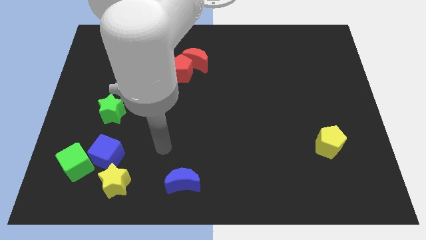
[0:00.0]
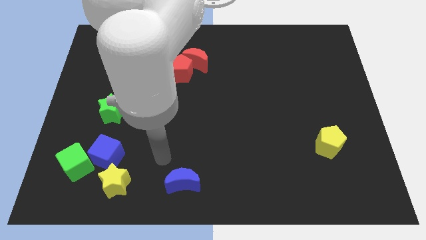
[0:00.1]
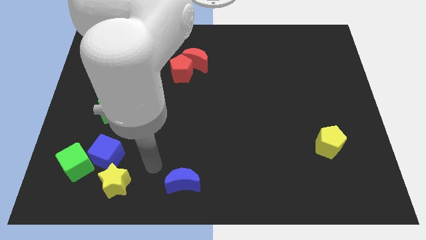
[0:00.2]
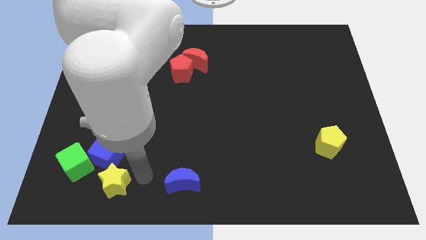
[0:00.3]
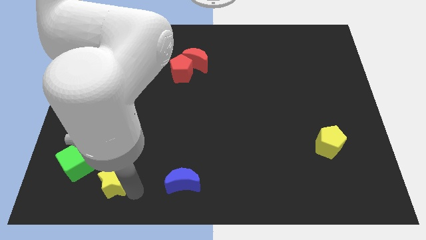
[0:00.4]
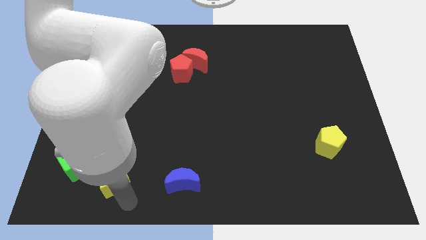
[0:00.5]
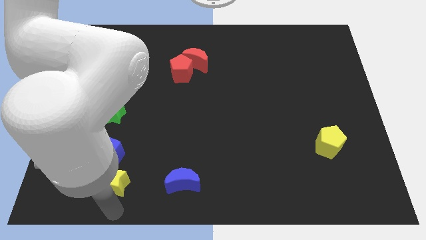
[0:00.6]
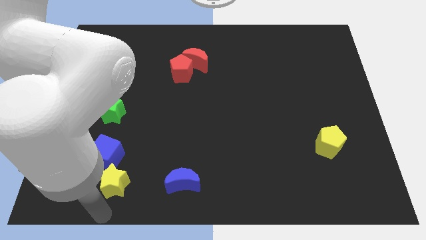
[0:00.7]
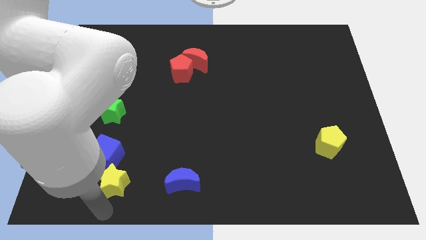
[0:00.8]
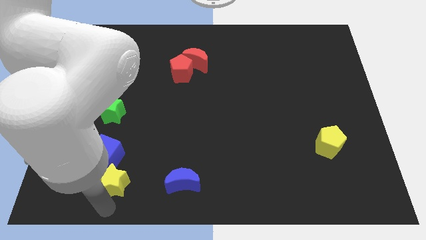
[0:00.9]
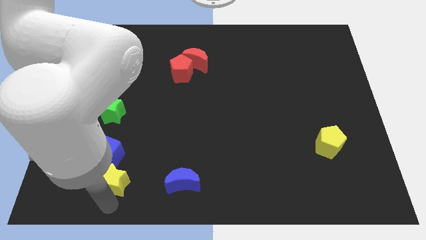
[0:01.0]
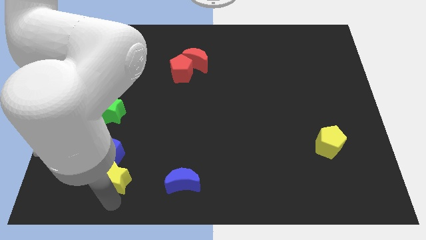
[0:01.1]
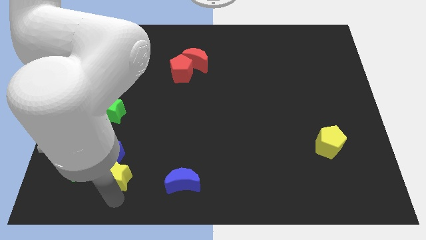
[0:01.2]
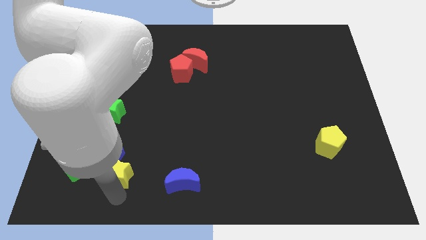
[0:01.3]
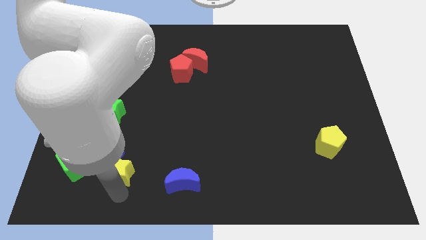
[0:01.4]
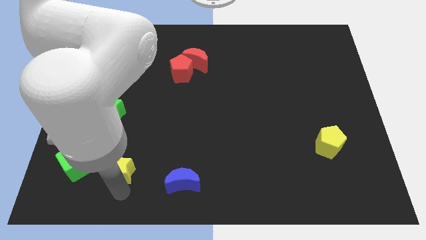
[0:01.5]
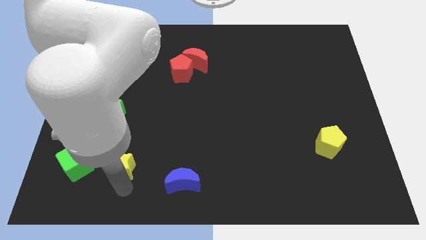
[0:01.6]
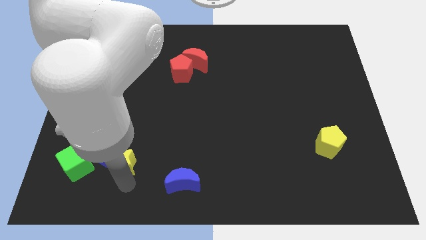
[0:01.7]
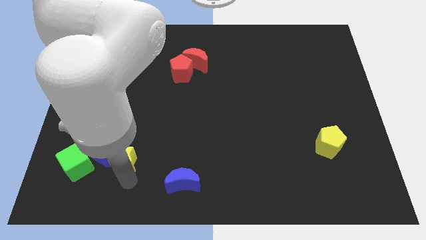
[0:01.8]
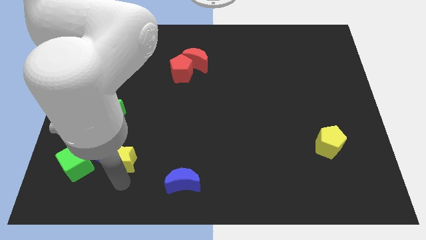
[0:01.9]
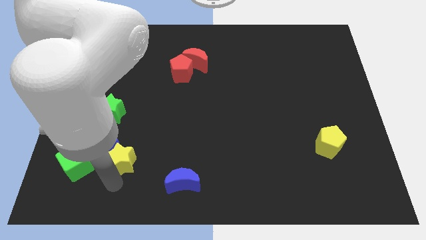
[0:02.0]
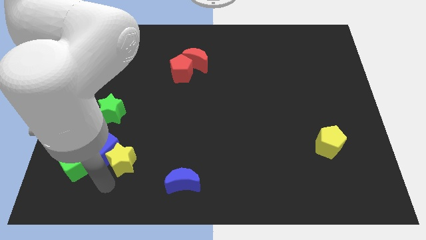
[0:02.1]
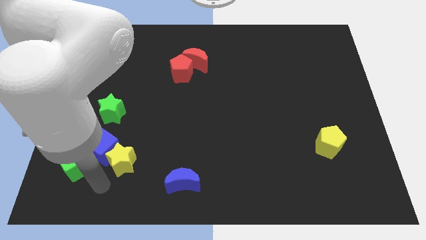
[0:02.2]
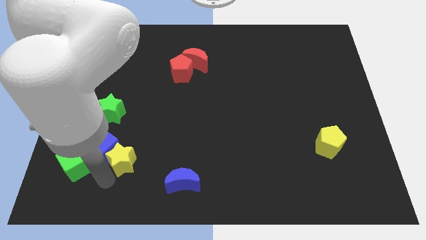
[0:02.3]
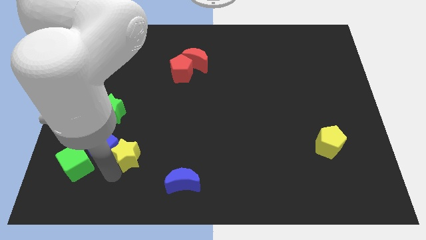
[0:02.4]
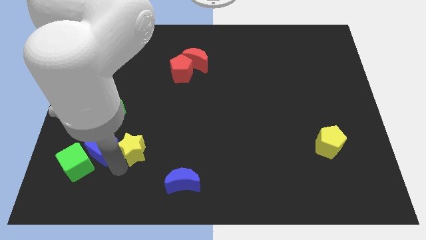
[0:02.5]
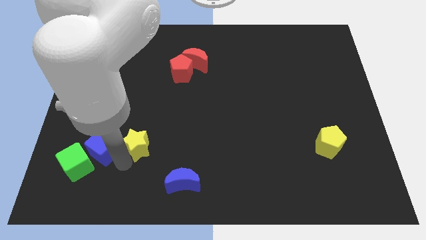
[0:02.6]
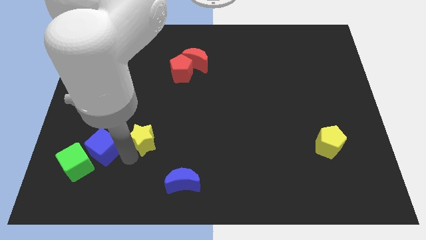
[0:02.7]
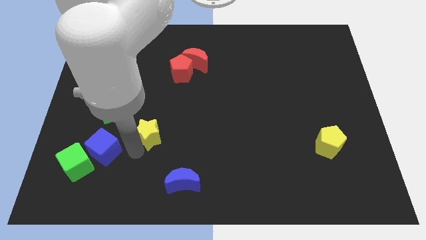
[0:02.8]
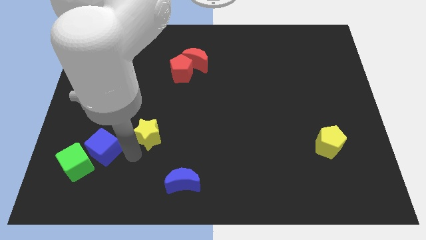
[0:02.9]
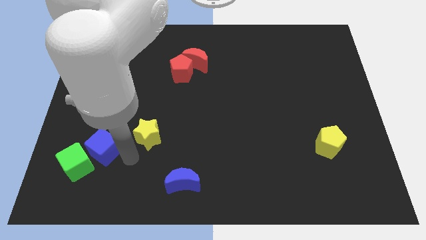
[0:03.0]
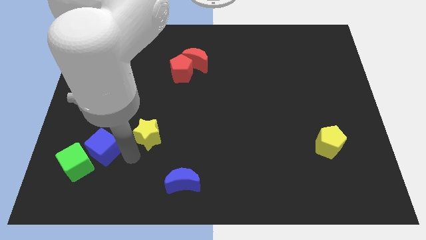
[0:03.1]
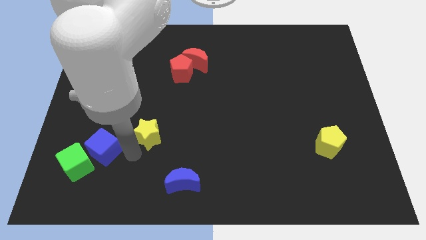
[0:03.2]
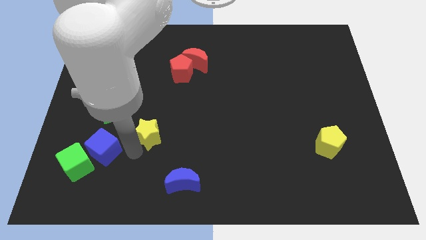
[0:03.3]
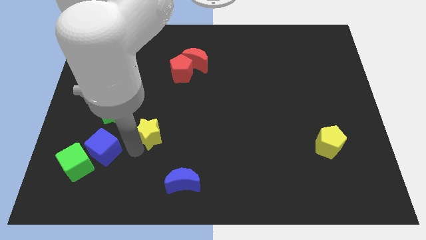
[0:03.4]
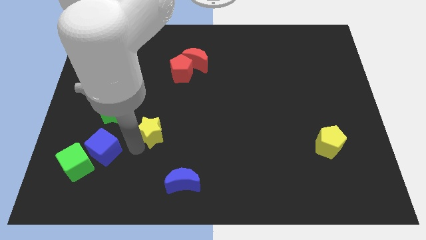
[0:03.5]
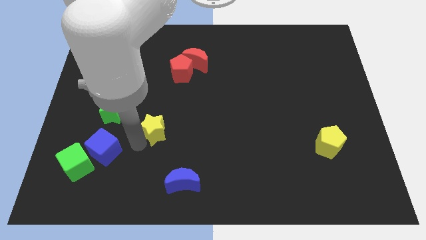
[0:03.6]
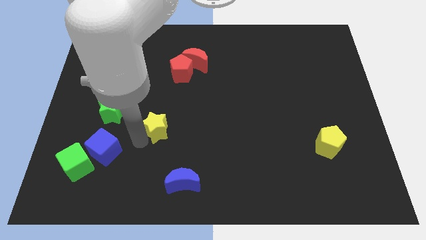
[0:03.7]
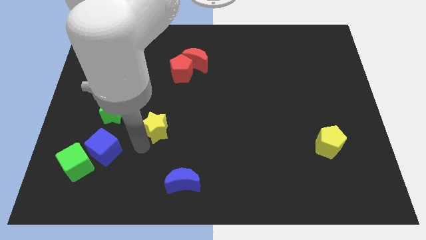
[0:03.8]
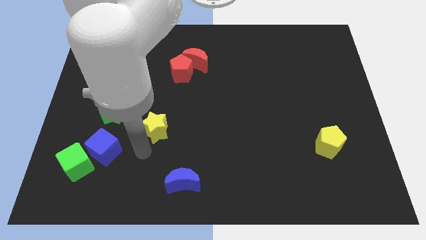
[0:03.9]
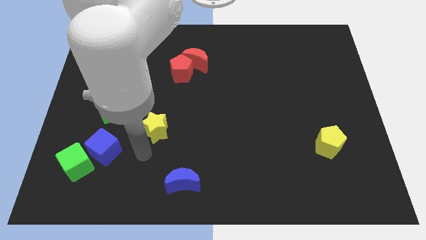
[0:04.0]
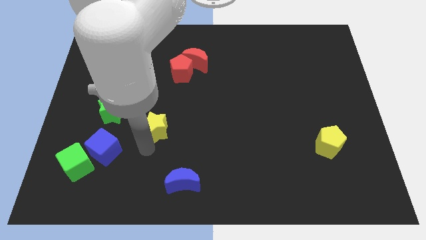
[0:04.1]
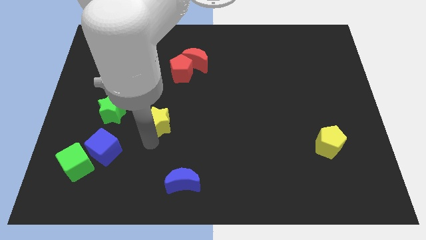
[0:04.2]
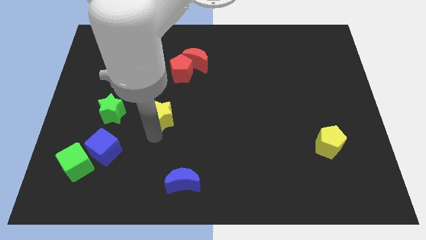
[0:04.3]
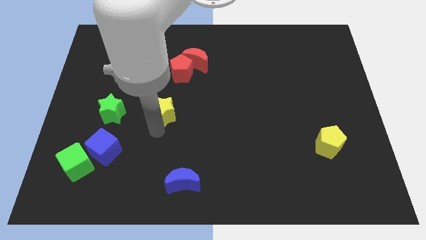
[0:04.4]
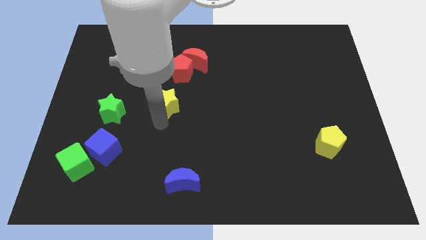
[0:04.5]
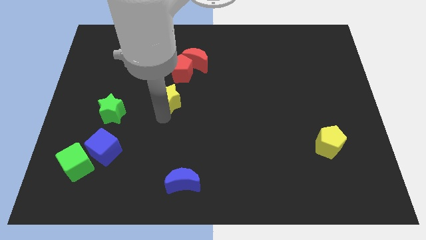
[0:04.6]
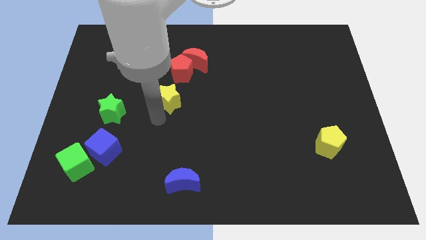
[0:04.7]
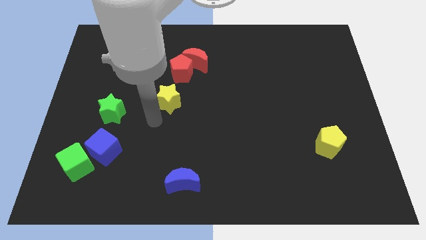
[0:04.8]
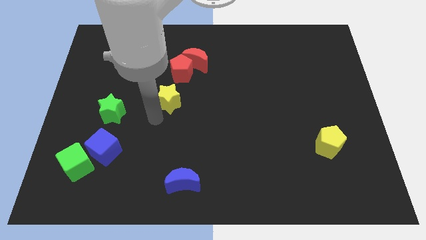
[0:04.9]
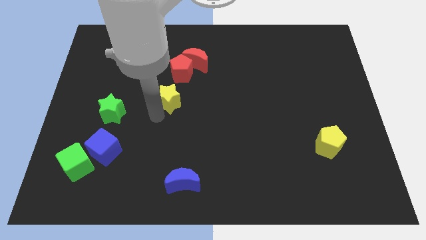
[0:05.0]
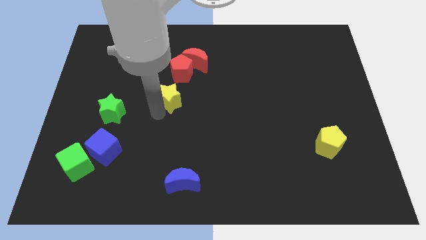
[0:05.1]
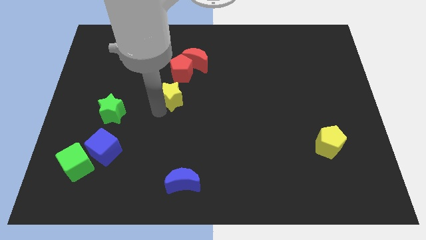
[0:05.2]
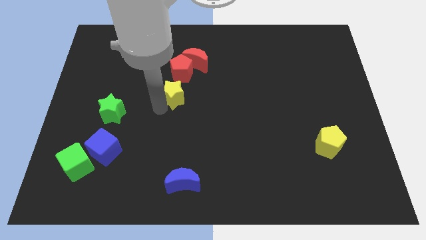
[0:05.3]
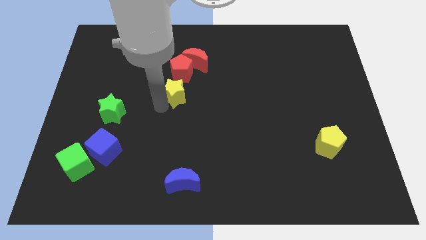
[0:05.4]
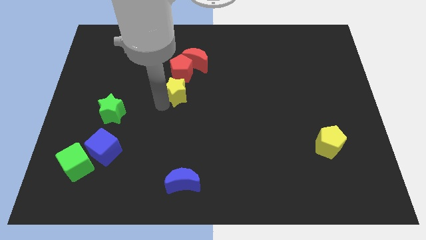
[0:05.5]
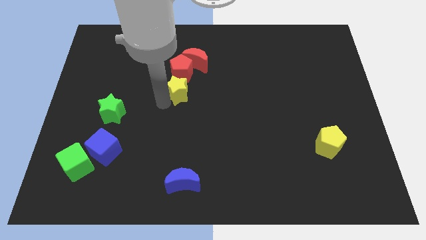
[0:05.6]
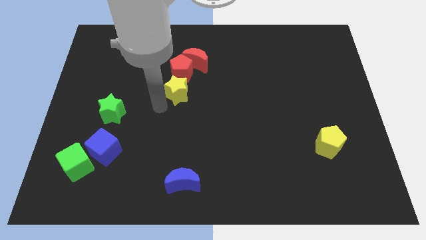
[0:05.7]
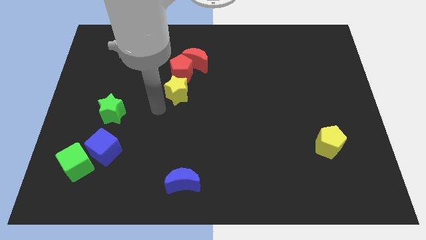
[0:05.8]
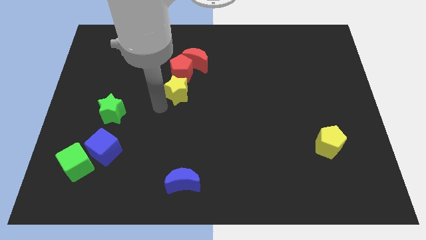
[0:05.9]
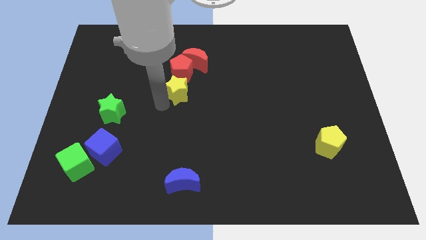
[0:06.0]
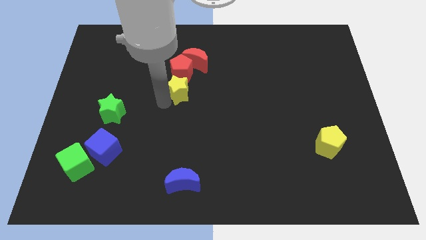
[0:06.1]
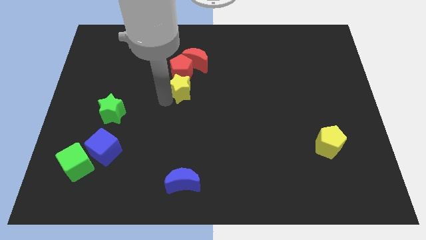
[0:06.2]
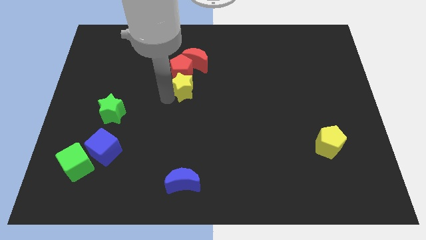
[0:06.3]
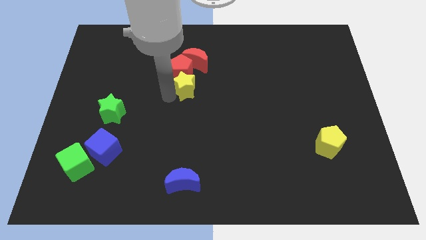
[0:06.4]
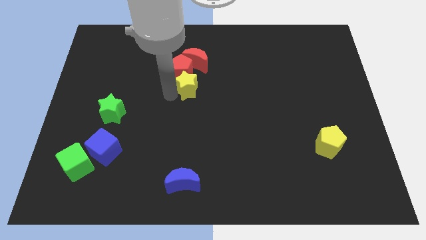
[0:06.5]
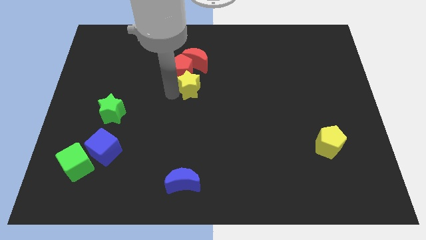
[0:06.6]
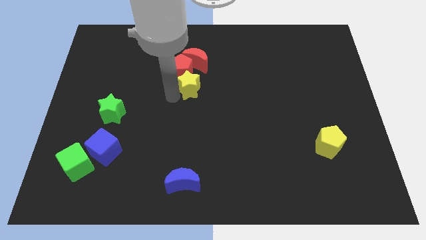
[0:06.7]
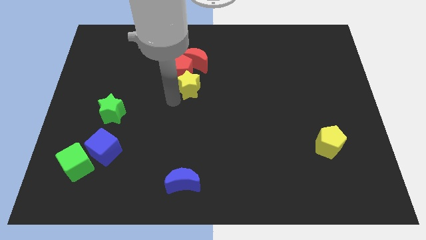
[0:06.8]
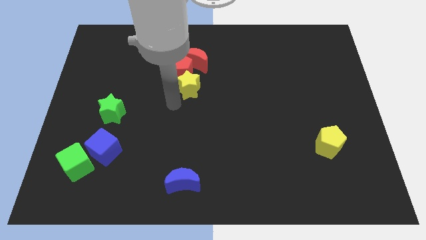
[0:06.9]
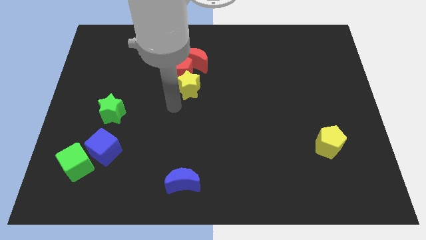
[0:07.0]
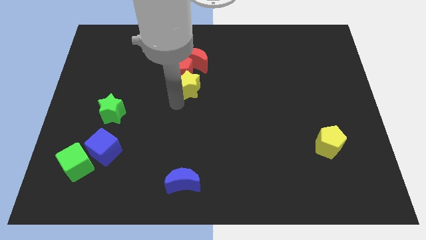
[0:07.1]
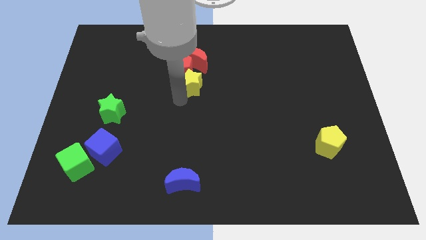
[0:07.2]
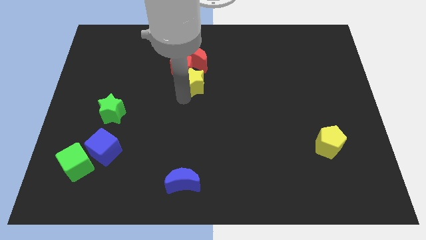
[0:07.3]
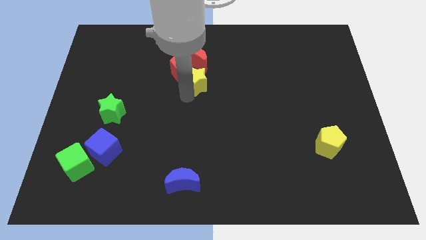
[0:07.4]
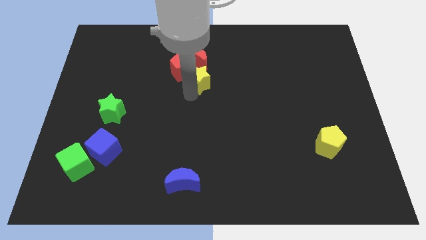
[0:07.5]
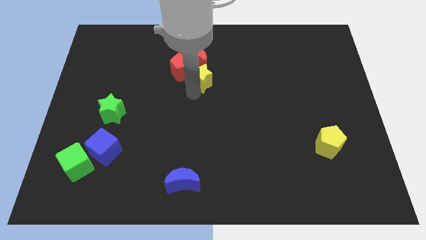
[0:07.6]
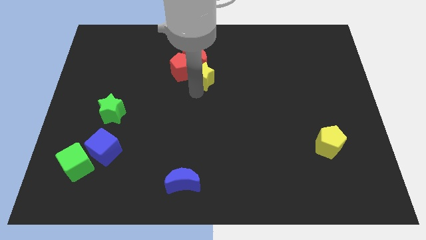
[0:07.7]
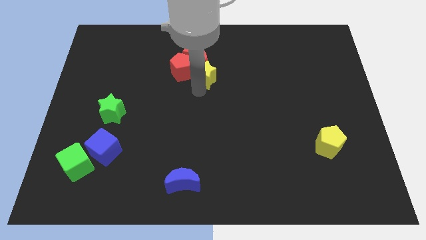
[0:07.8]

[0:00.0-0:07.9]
move the yellow star next to the red moon
